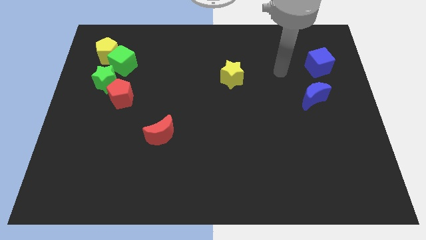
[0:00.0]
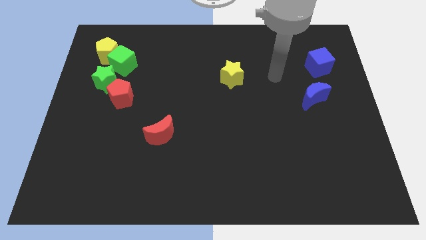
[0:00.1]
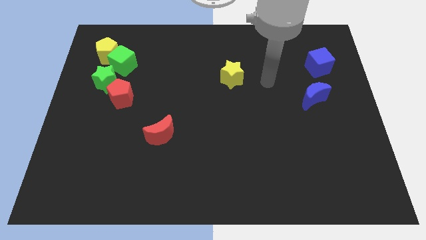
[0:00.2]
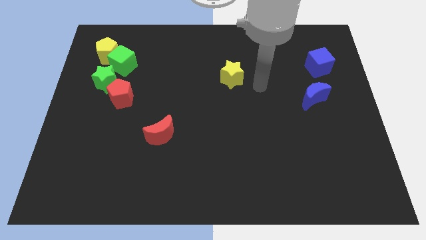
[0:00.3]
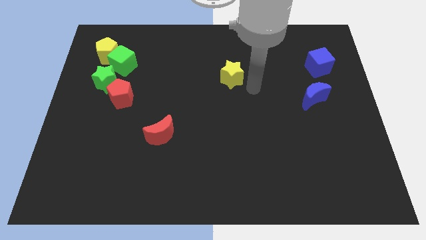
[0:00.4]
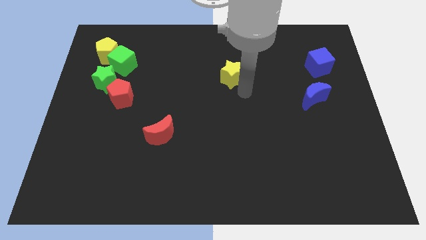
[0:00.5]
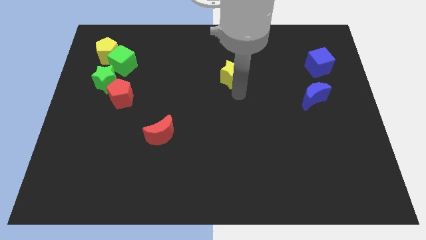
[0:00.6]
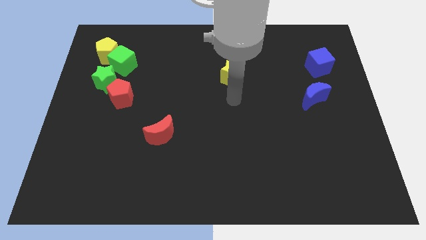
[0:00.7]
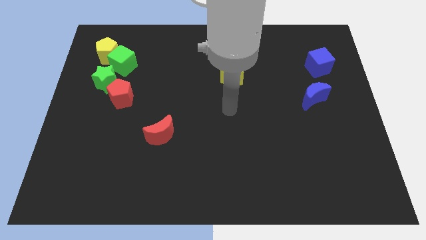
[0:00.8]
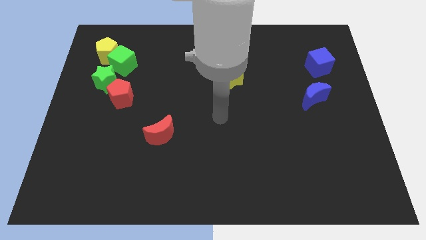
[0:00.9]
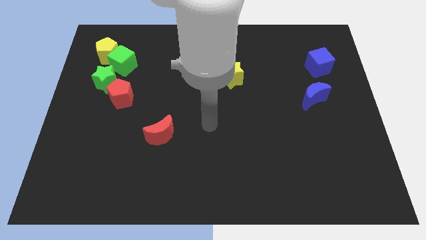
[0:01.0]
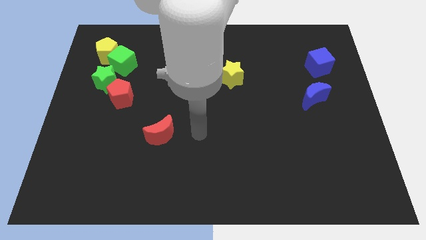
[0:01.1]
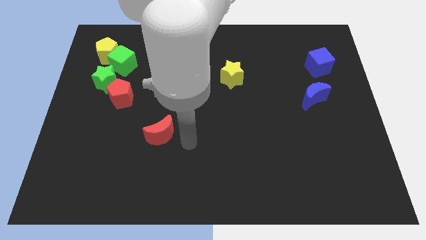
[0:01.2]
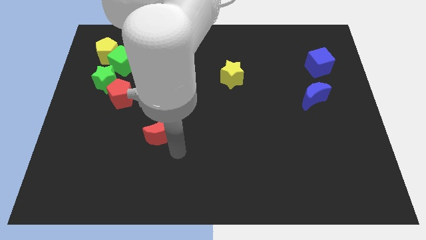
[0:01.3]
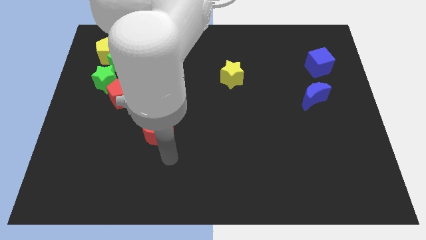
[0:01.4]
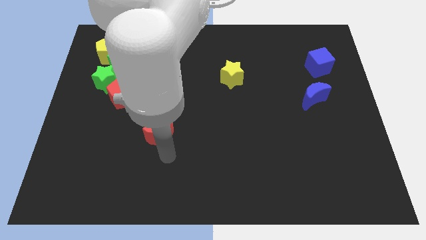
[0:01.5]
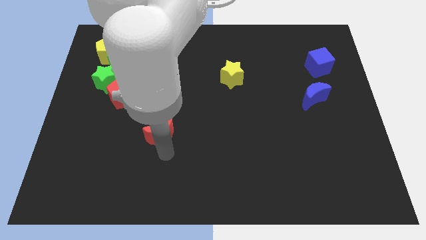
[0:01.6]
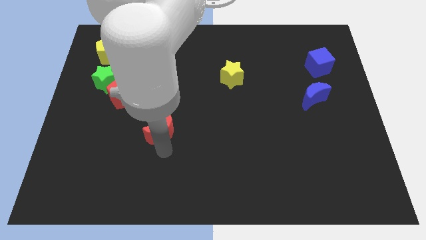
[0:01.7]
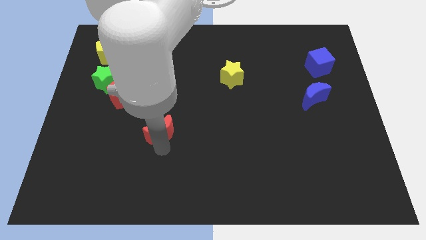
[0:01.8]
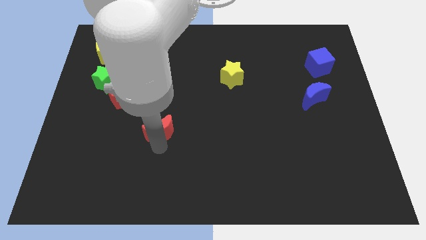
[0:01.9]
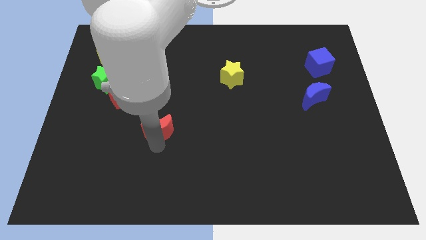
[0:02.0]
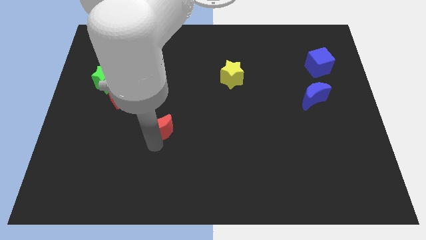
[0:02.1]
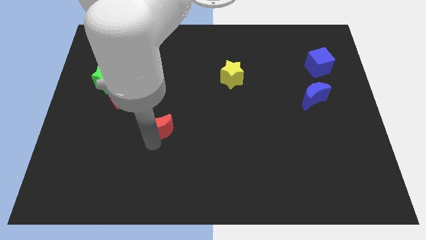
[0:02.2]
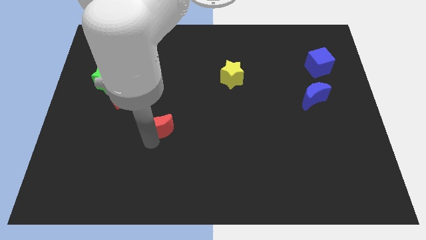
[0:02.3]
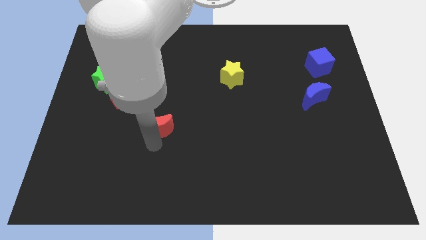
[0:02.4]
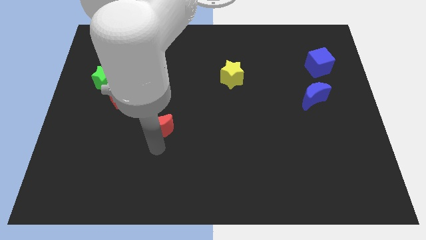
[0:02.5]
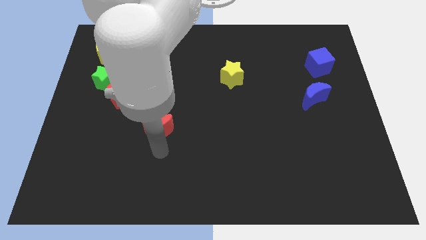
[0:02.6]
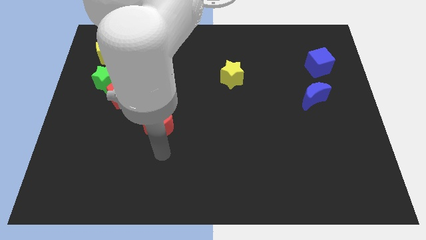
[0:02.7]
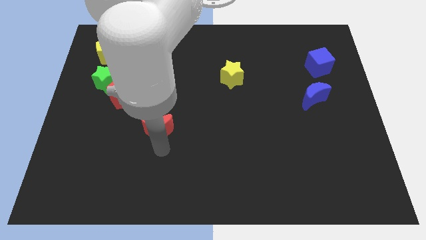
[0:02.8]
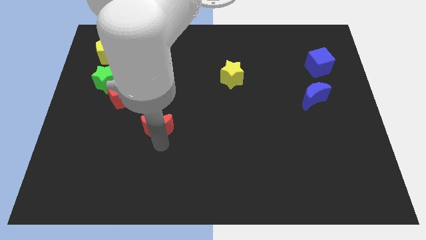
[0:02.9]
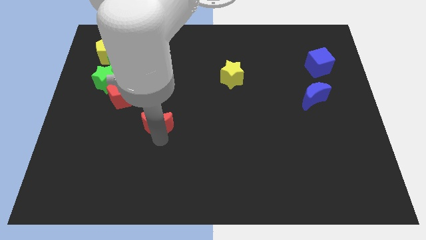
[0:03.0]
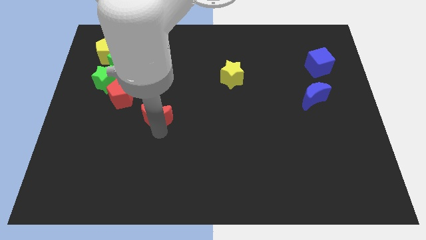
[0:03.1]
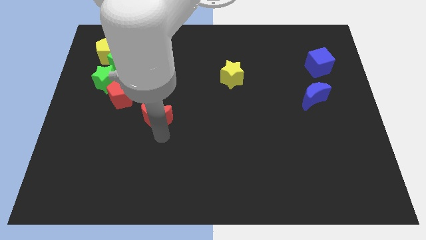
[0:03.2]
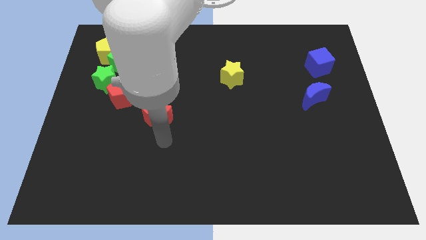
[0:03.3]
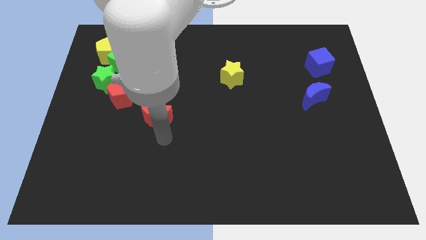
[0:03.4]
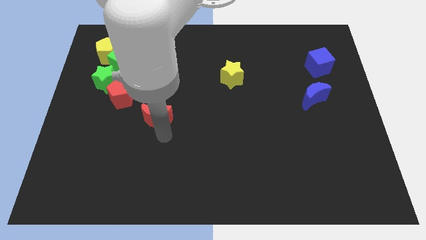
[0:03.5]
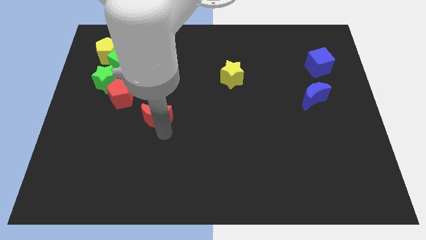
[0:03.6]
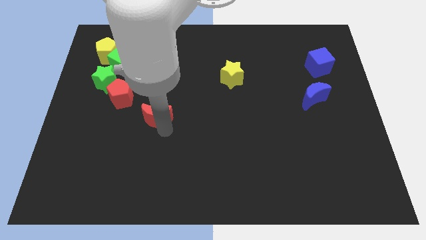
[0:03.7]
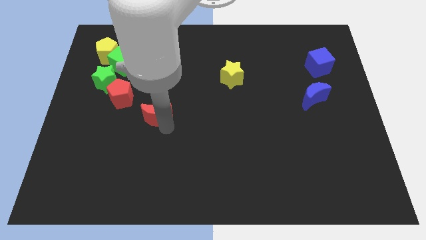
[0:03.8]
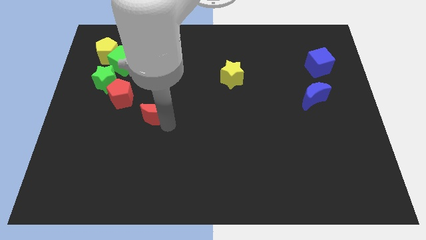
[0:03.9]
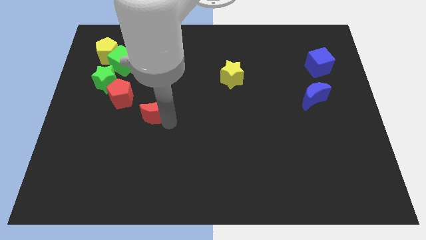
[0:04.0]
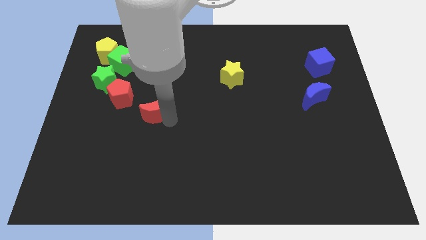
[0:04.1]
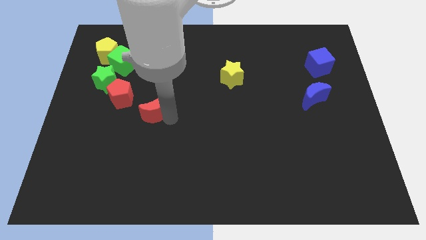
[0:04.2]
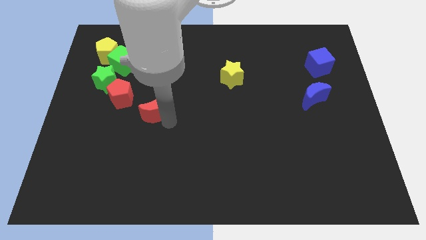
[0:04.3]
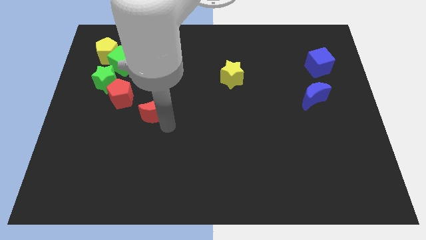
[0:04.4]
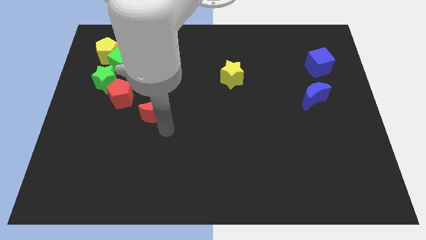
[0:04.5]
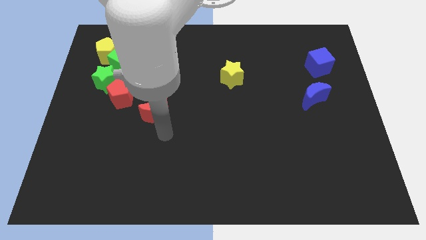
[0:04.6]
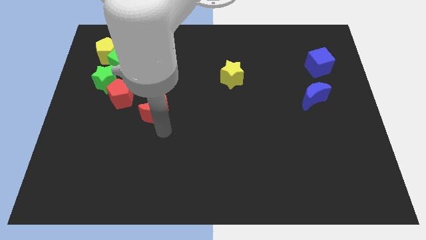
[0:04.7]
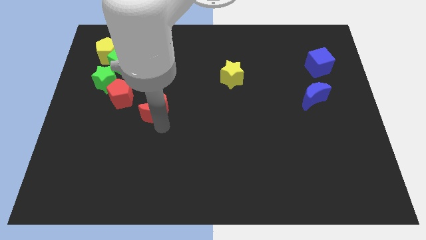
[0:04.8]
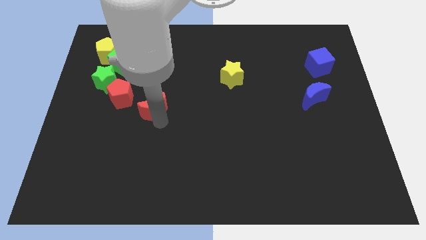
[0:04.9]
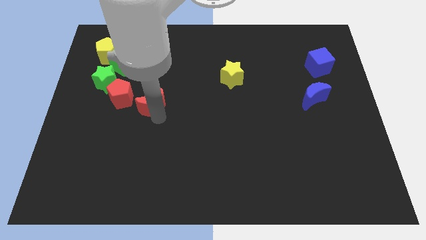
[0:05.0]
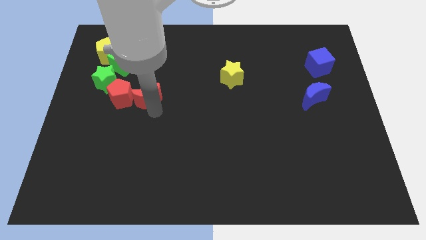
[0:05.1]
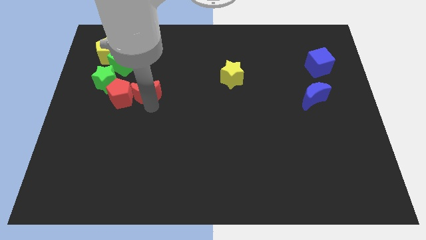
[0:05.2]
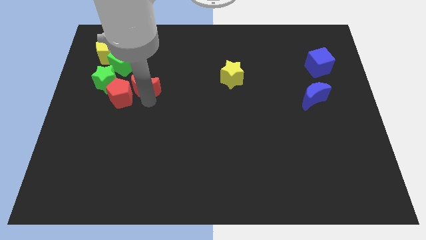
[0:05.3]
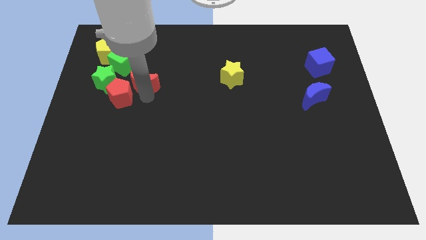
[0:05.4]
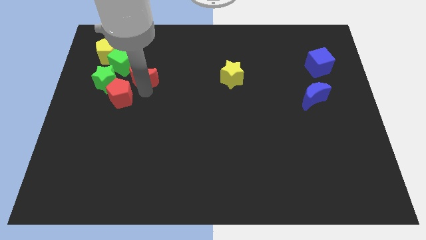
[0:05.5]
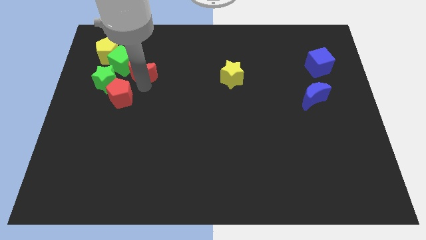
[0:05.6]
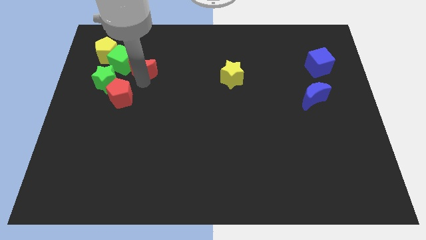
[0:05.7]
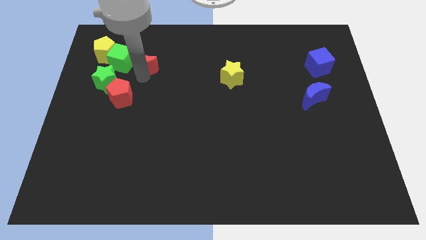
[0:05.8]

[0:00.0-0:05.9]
move the red moon to the right side of the yellow pentagon
